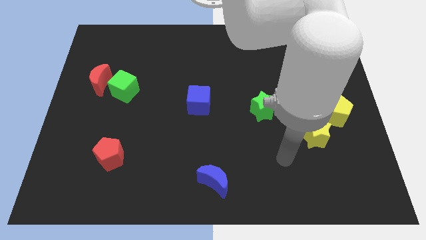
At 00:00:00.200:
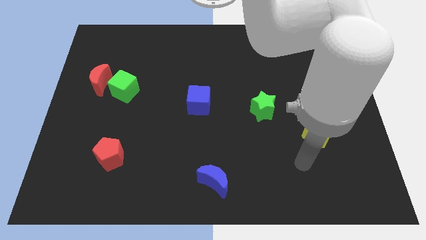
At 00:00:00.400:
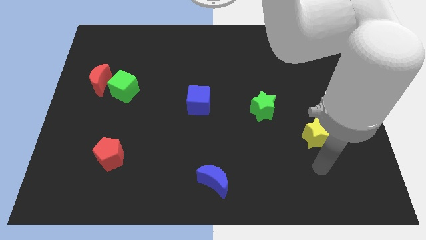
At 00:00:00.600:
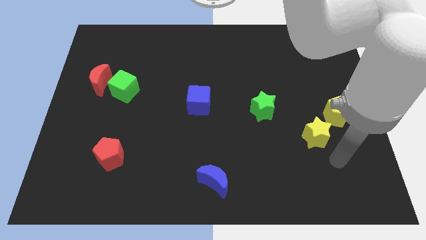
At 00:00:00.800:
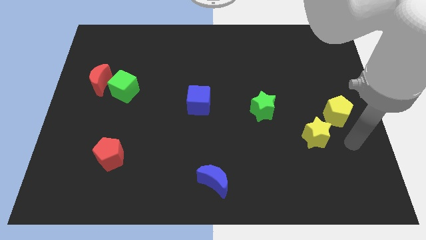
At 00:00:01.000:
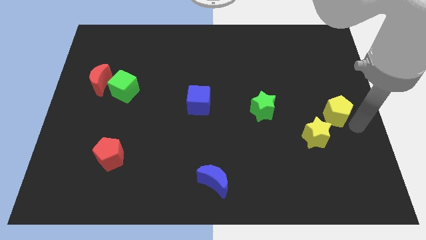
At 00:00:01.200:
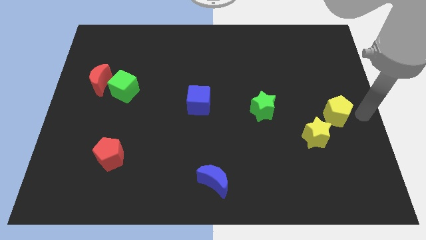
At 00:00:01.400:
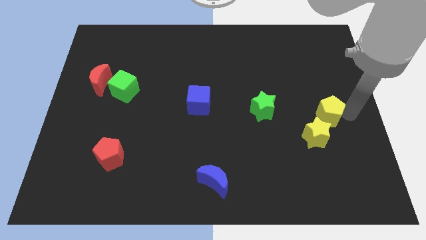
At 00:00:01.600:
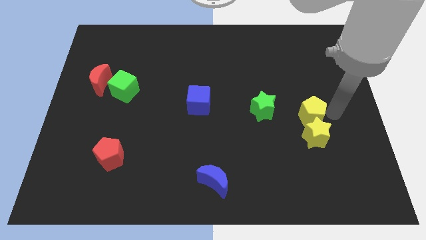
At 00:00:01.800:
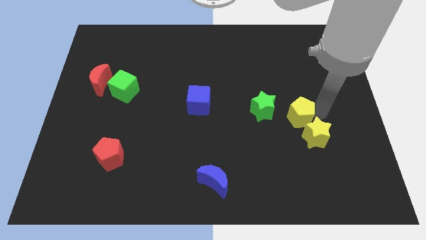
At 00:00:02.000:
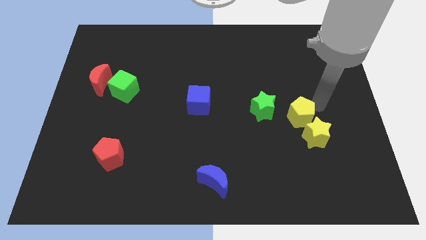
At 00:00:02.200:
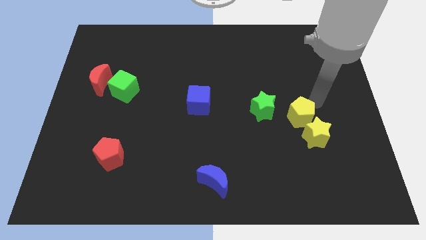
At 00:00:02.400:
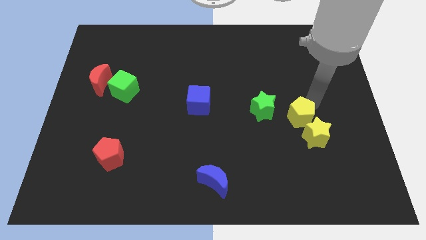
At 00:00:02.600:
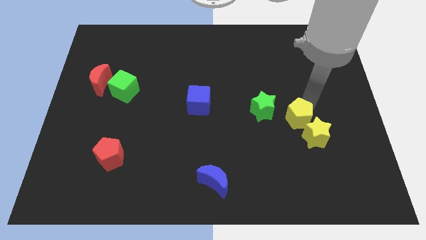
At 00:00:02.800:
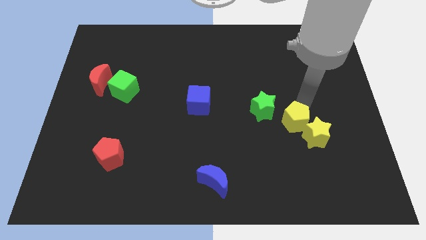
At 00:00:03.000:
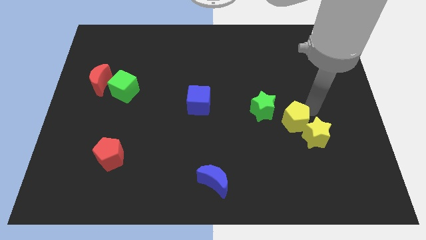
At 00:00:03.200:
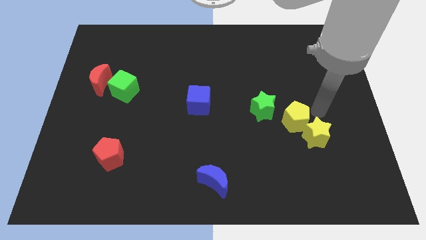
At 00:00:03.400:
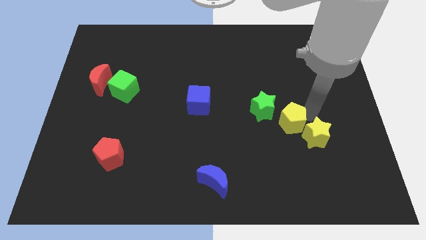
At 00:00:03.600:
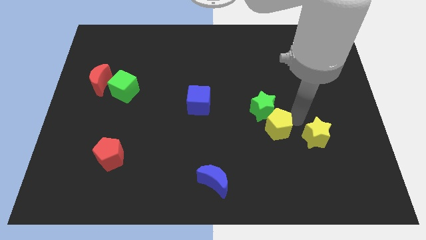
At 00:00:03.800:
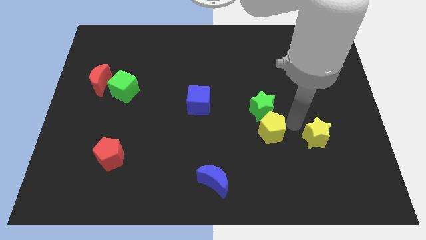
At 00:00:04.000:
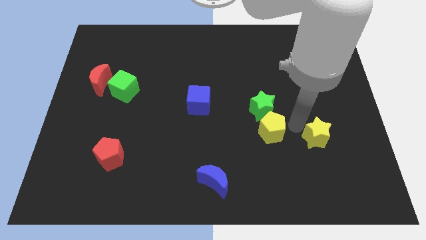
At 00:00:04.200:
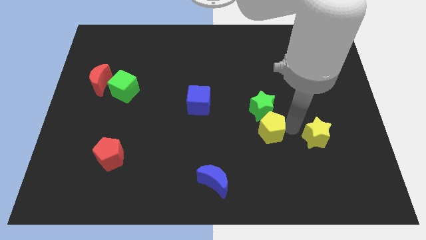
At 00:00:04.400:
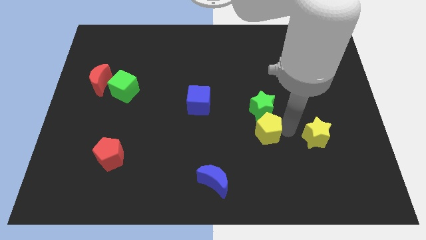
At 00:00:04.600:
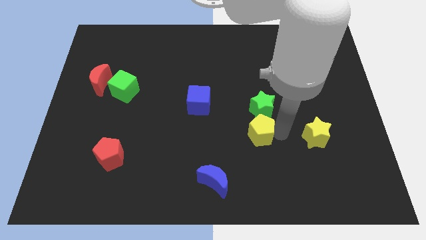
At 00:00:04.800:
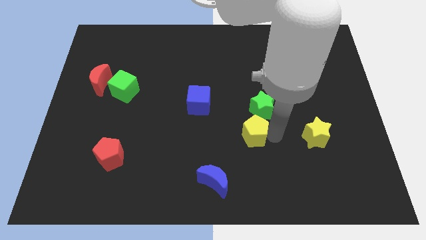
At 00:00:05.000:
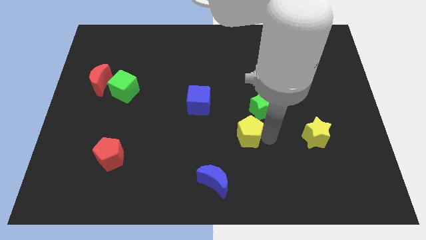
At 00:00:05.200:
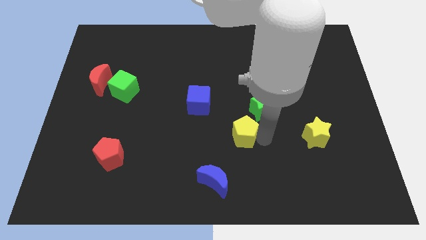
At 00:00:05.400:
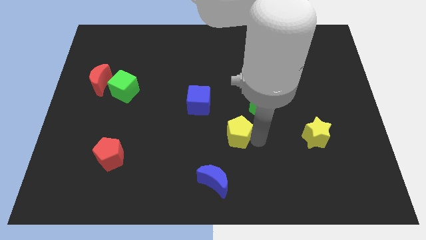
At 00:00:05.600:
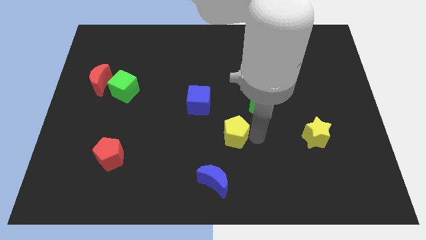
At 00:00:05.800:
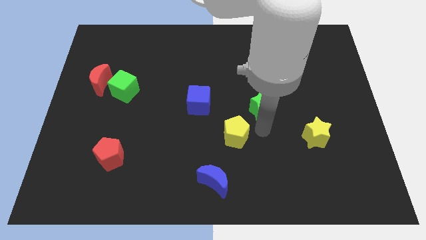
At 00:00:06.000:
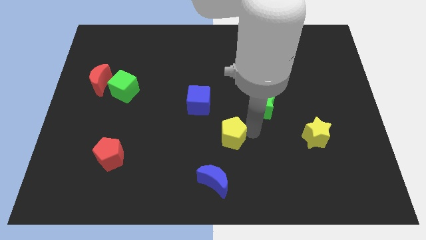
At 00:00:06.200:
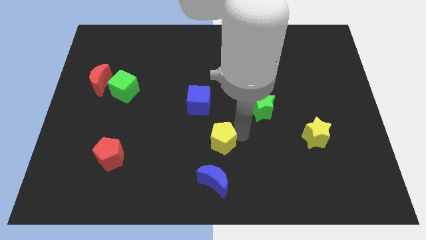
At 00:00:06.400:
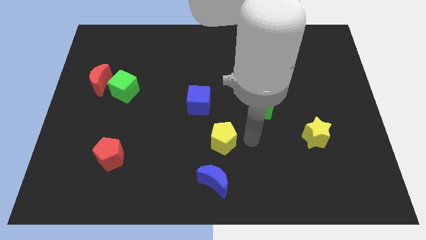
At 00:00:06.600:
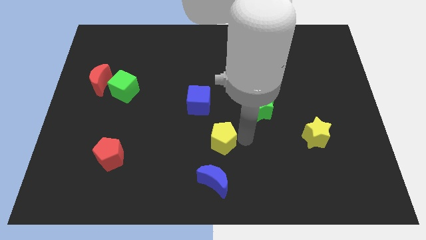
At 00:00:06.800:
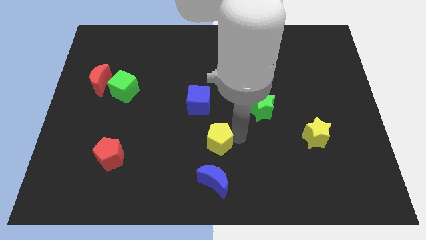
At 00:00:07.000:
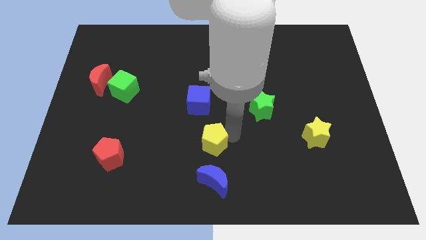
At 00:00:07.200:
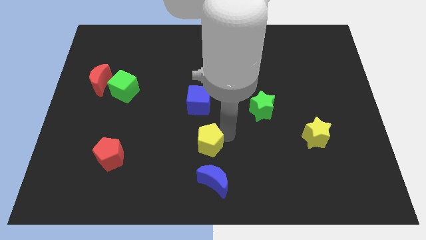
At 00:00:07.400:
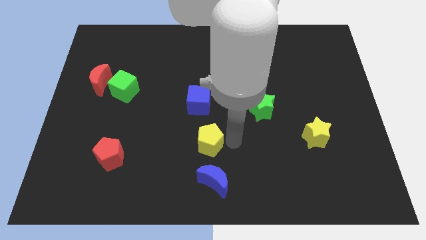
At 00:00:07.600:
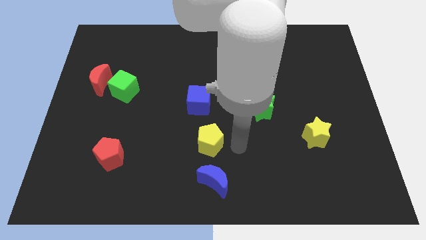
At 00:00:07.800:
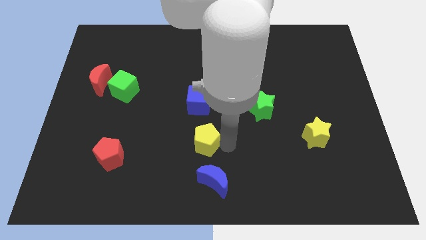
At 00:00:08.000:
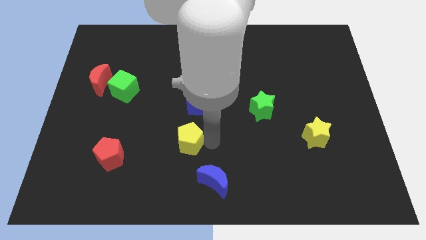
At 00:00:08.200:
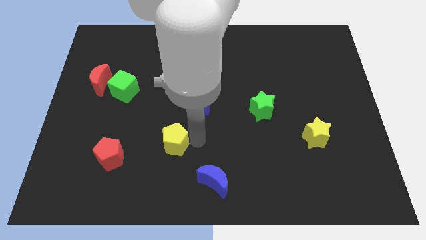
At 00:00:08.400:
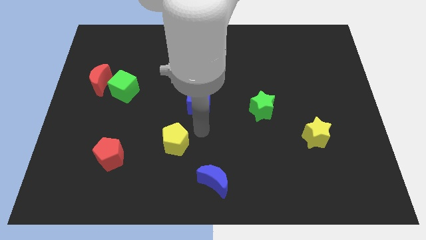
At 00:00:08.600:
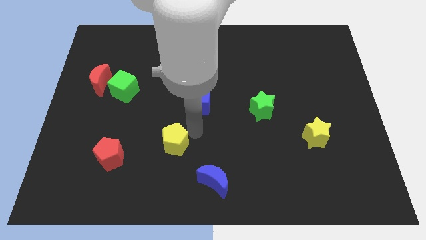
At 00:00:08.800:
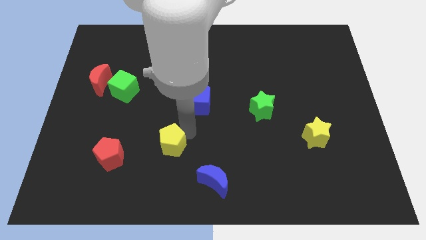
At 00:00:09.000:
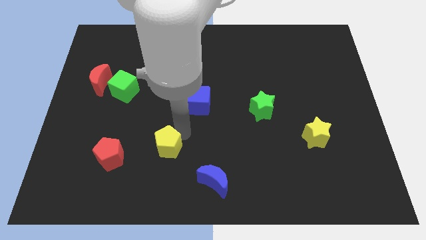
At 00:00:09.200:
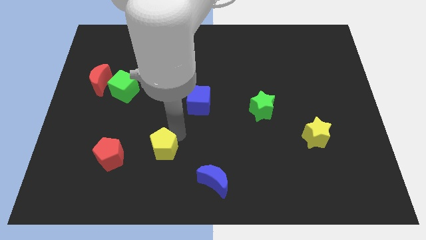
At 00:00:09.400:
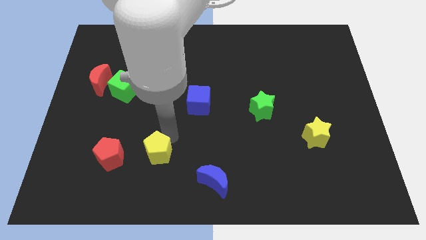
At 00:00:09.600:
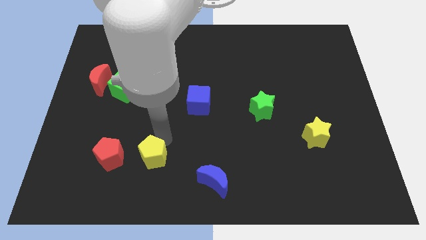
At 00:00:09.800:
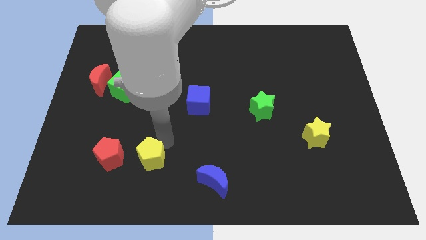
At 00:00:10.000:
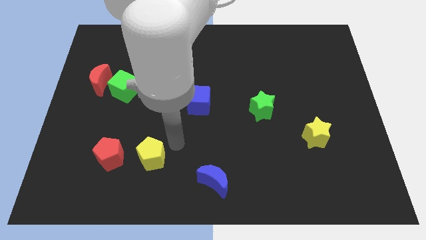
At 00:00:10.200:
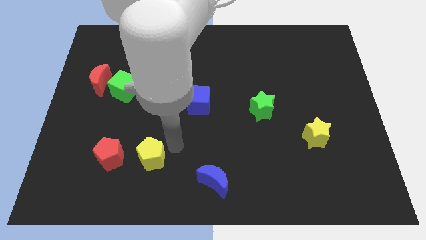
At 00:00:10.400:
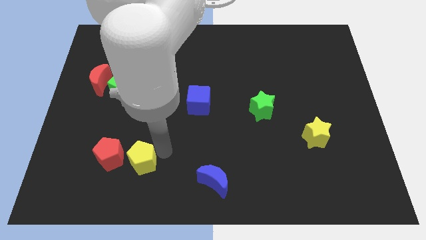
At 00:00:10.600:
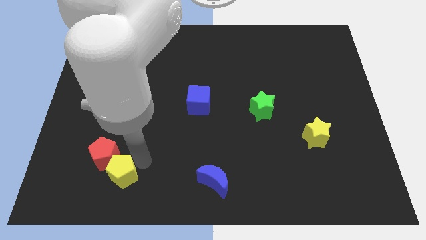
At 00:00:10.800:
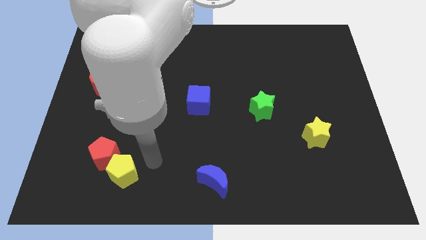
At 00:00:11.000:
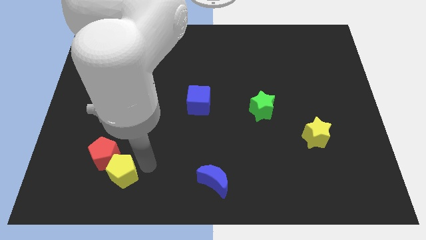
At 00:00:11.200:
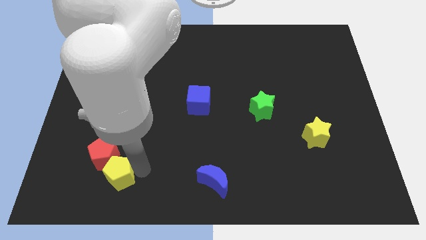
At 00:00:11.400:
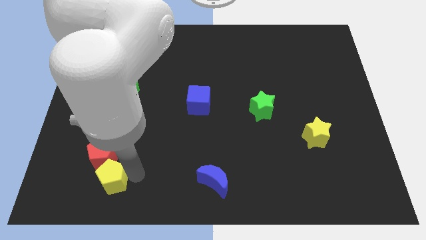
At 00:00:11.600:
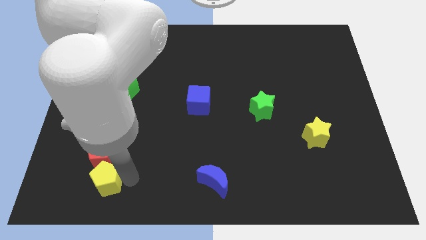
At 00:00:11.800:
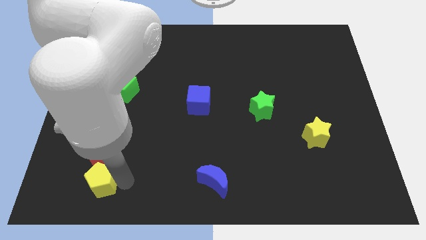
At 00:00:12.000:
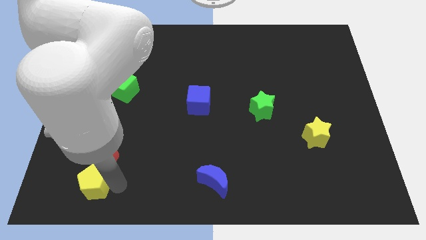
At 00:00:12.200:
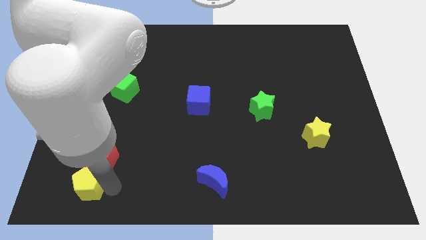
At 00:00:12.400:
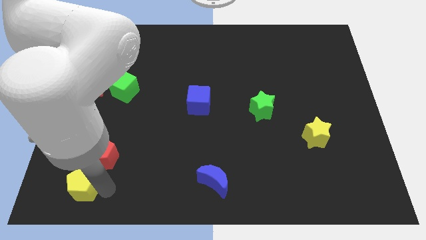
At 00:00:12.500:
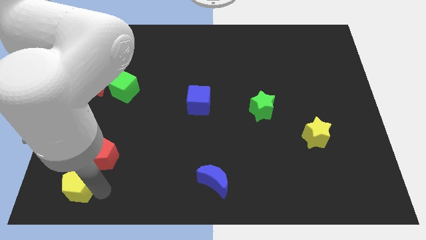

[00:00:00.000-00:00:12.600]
move the yellow pentagon to the bottom left of the board
